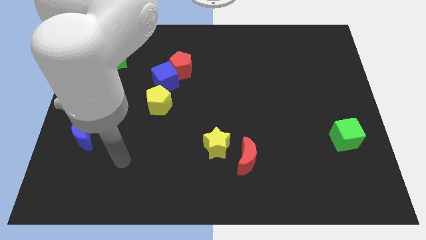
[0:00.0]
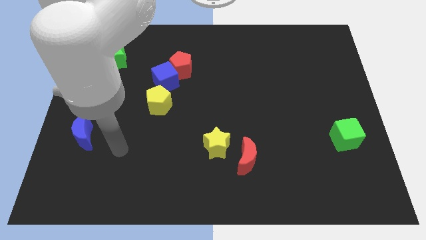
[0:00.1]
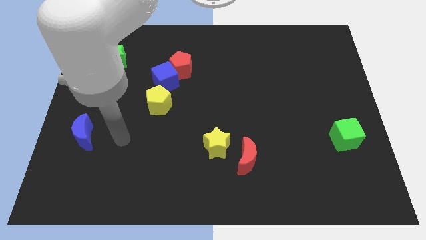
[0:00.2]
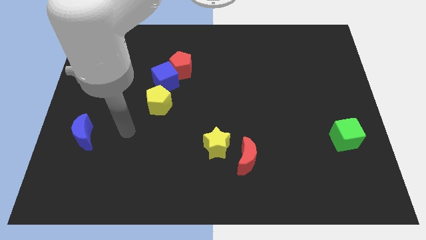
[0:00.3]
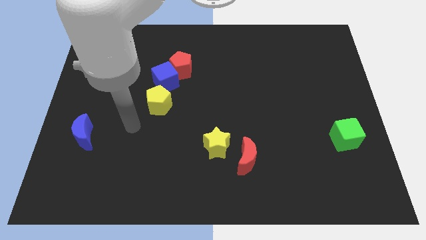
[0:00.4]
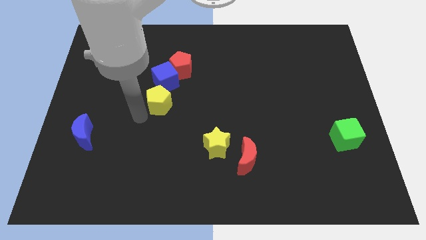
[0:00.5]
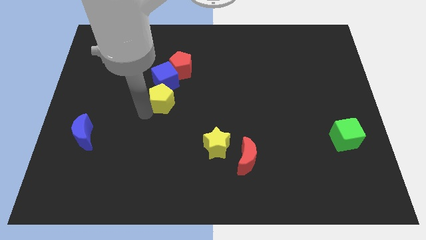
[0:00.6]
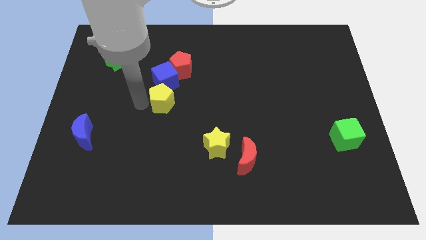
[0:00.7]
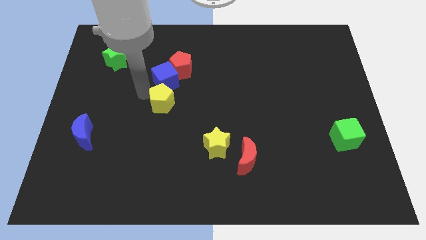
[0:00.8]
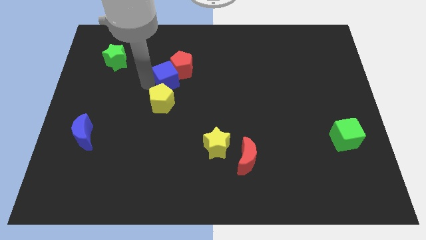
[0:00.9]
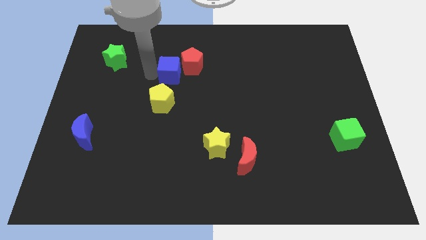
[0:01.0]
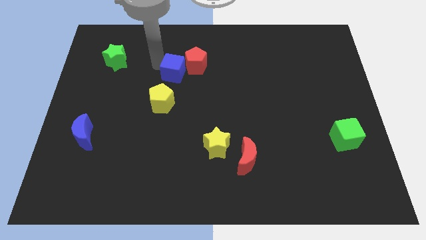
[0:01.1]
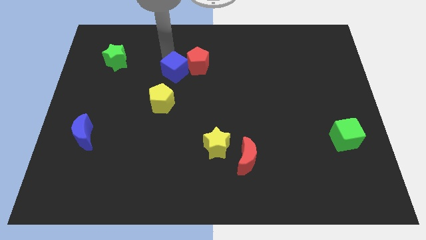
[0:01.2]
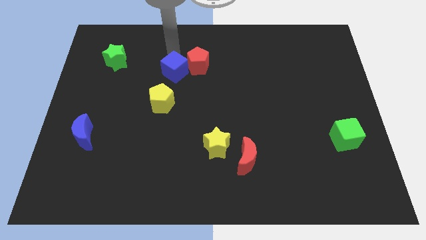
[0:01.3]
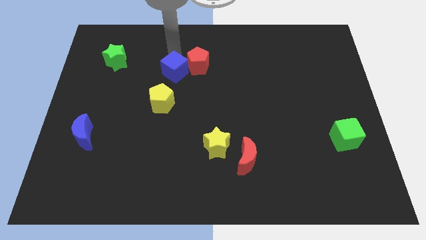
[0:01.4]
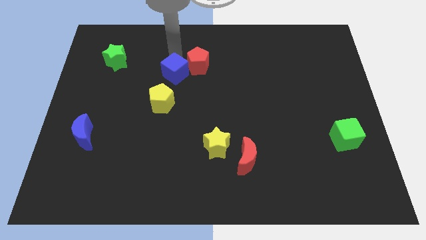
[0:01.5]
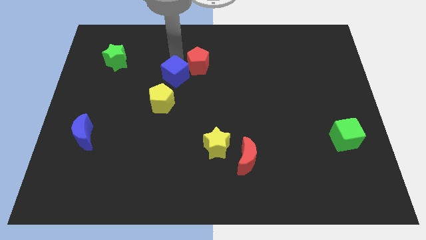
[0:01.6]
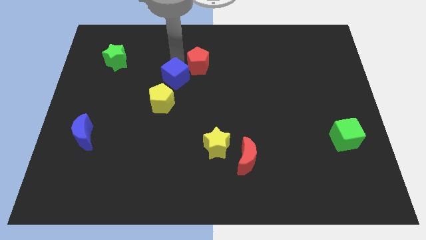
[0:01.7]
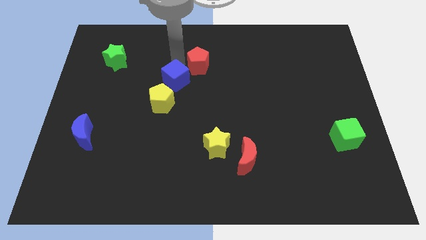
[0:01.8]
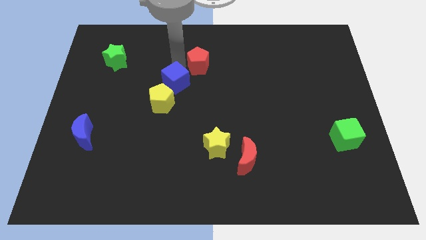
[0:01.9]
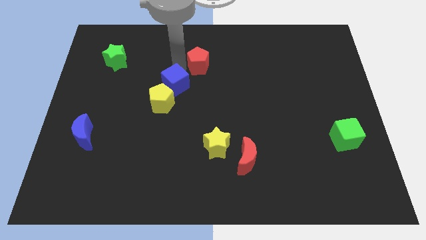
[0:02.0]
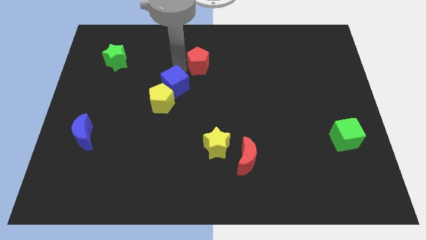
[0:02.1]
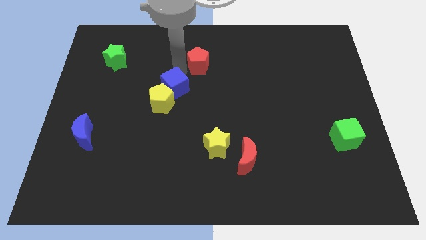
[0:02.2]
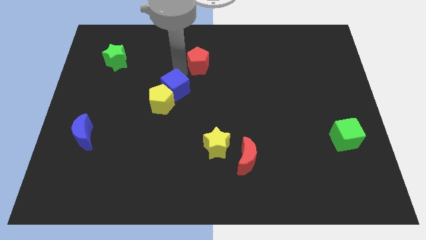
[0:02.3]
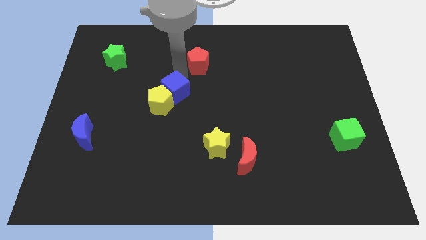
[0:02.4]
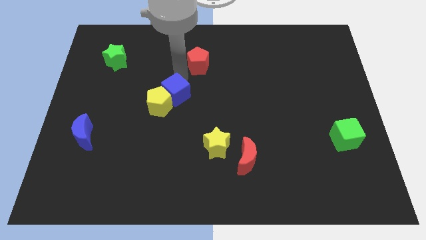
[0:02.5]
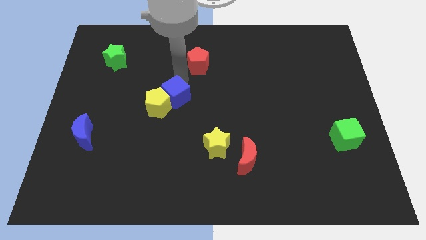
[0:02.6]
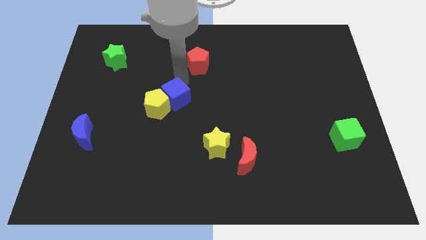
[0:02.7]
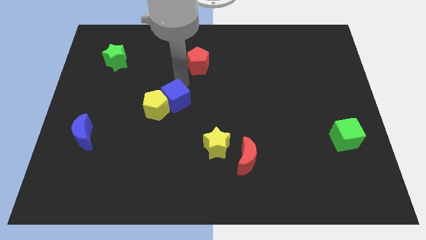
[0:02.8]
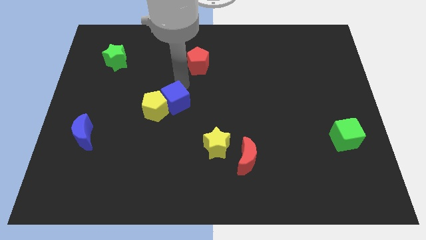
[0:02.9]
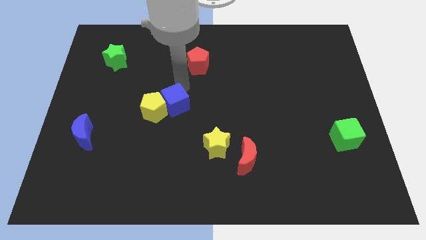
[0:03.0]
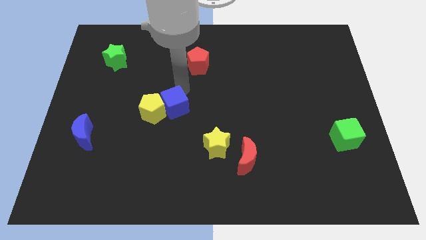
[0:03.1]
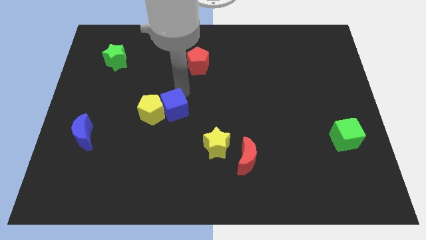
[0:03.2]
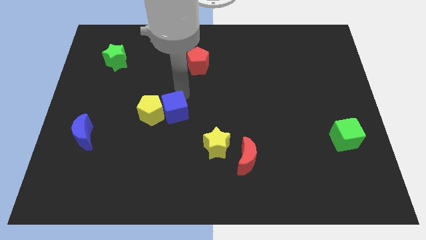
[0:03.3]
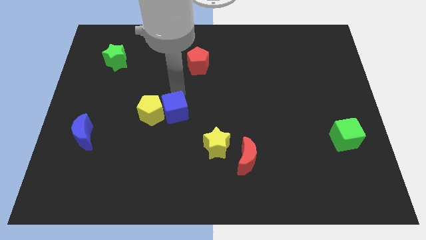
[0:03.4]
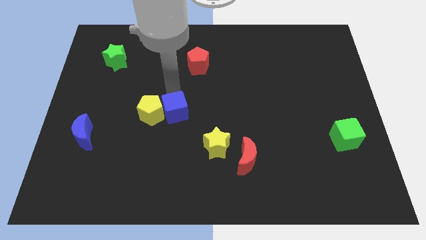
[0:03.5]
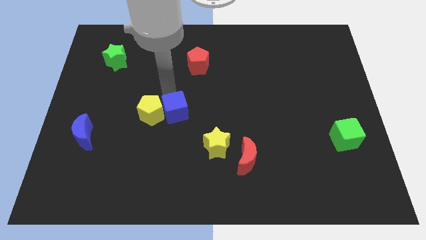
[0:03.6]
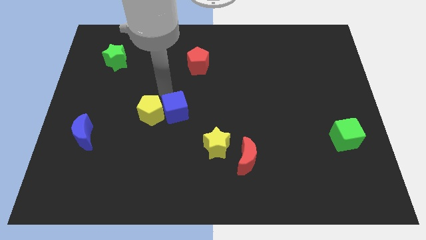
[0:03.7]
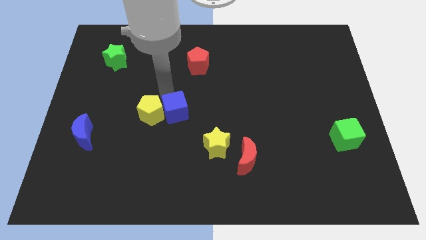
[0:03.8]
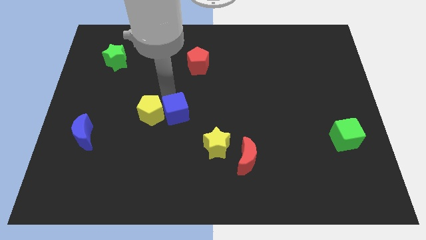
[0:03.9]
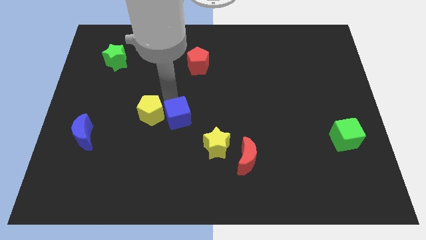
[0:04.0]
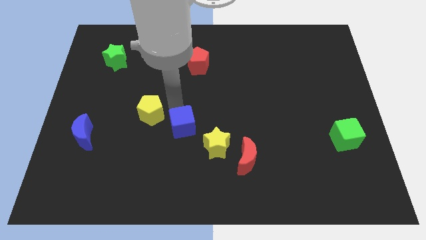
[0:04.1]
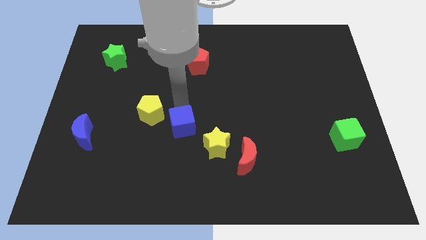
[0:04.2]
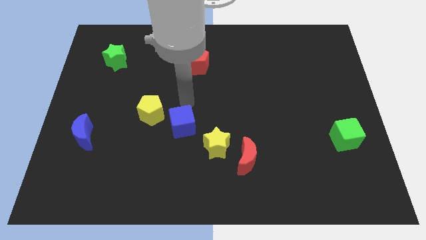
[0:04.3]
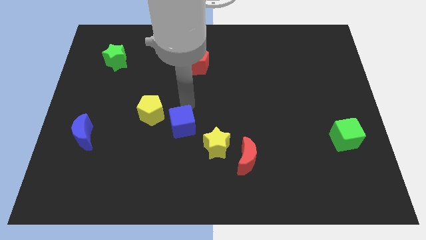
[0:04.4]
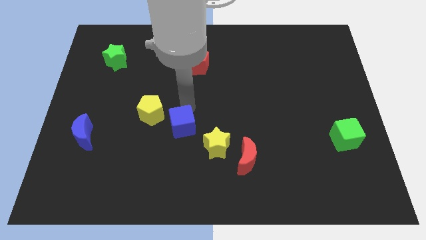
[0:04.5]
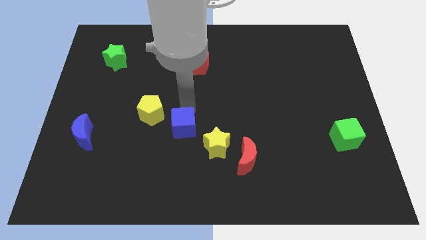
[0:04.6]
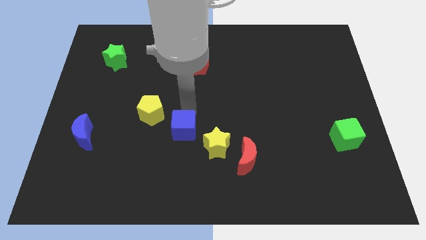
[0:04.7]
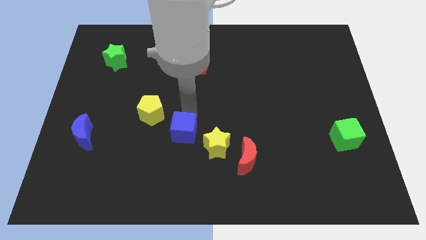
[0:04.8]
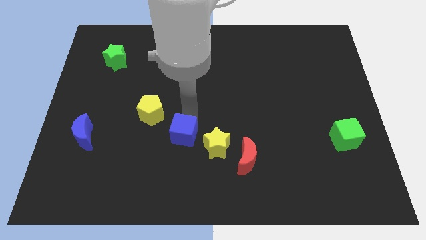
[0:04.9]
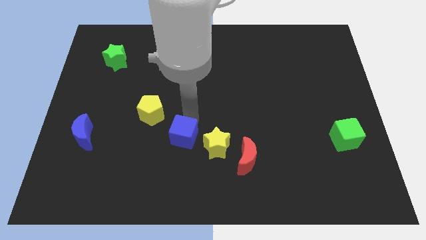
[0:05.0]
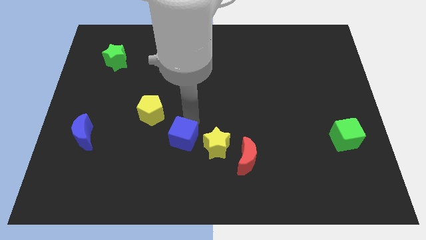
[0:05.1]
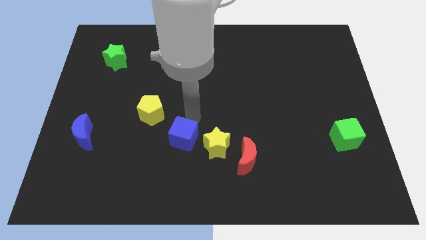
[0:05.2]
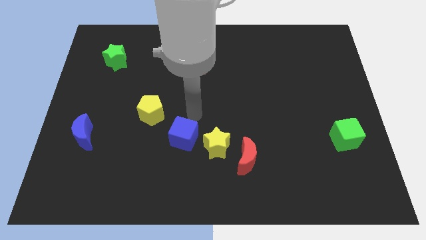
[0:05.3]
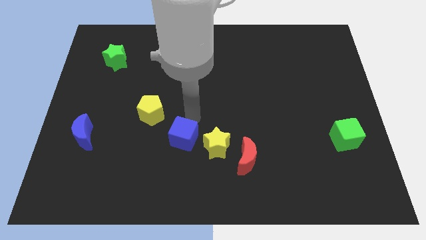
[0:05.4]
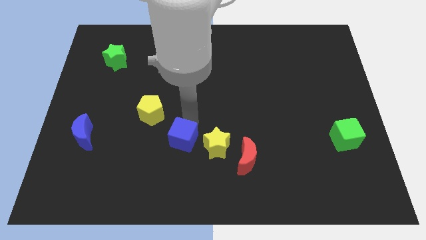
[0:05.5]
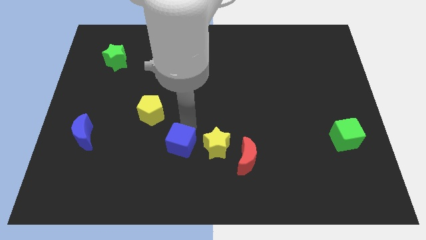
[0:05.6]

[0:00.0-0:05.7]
move the blue cube left of the red moon

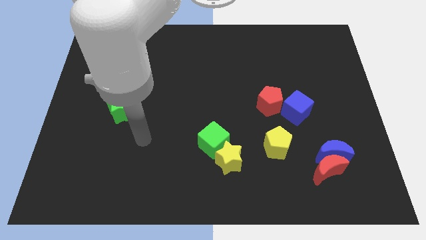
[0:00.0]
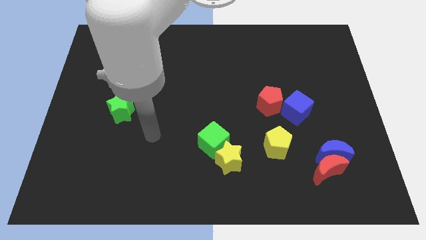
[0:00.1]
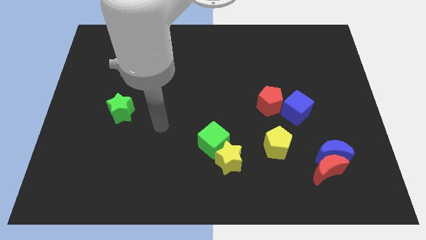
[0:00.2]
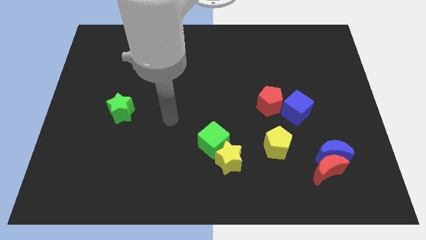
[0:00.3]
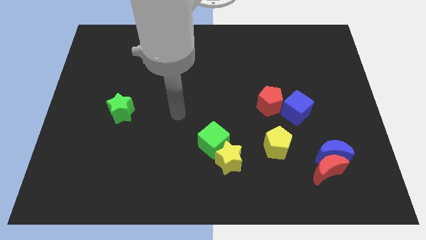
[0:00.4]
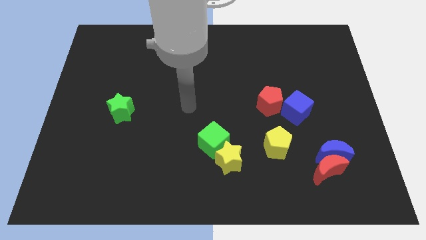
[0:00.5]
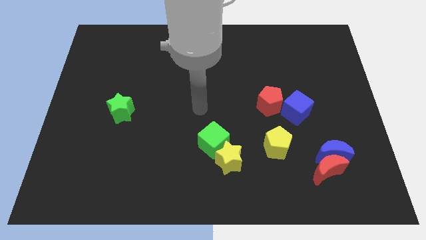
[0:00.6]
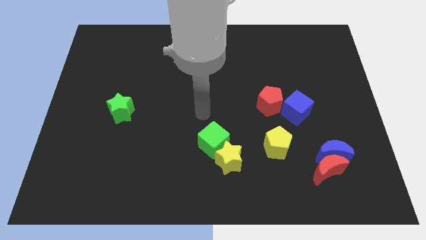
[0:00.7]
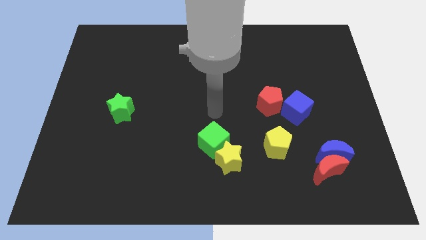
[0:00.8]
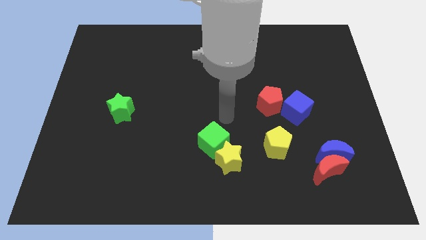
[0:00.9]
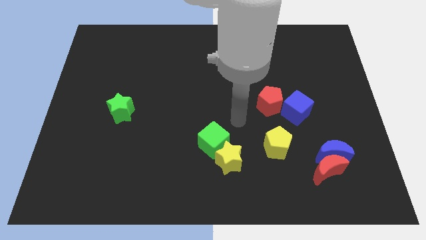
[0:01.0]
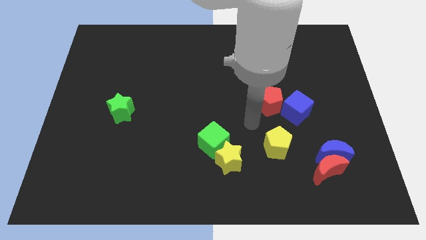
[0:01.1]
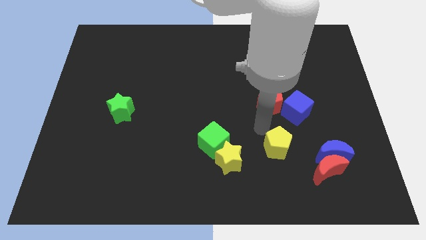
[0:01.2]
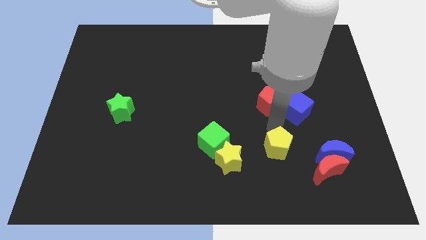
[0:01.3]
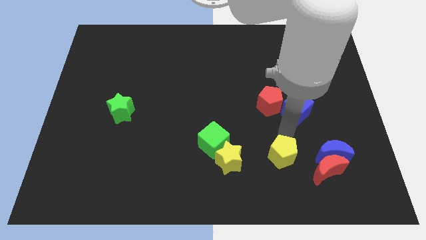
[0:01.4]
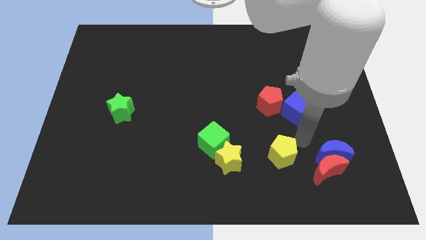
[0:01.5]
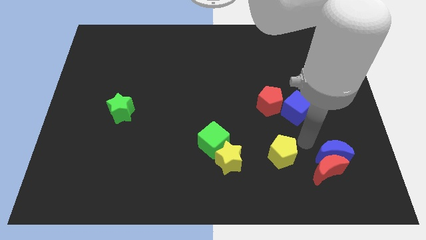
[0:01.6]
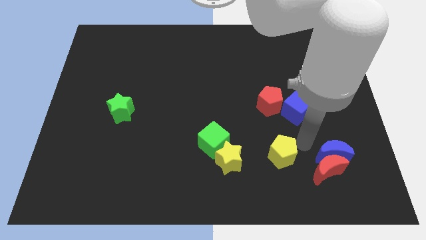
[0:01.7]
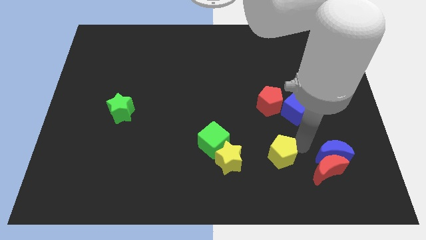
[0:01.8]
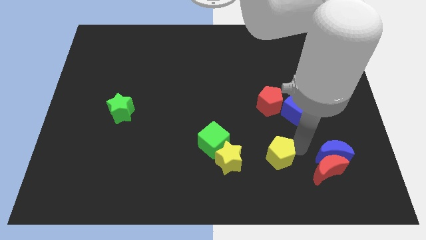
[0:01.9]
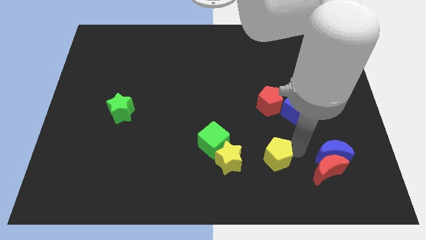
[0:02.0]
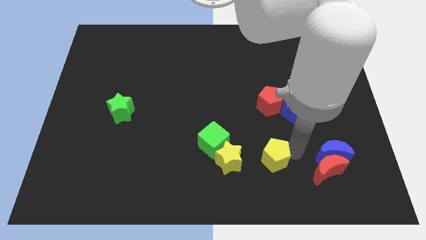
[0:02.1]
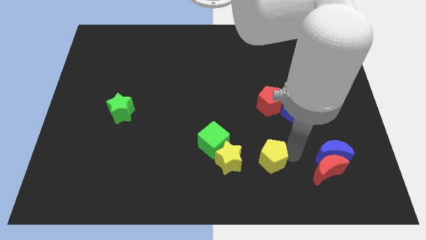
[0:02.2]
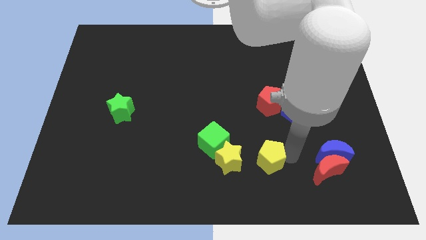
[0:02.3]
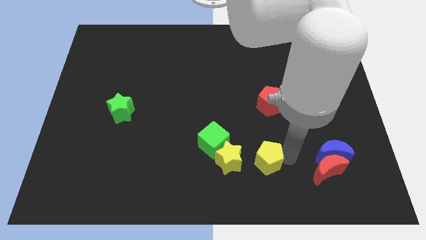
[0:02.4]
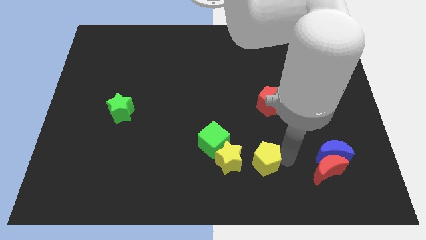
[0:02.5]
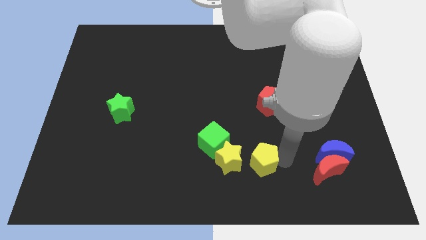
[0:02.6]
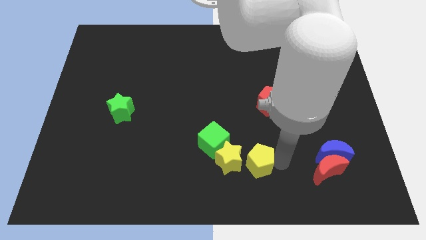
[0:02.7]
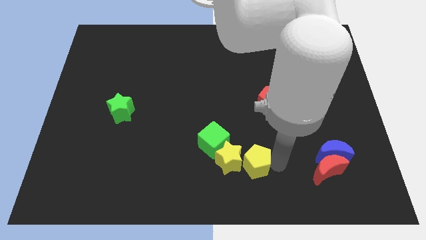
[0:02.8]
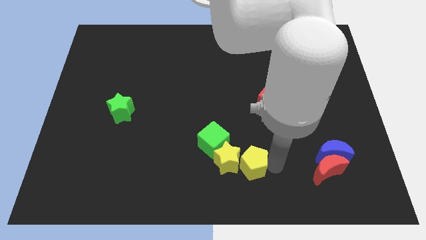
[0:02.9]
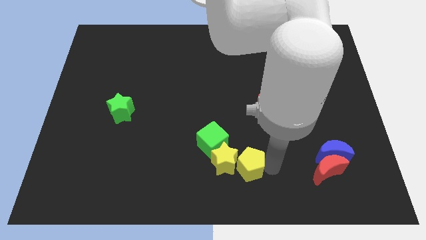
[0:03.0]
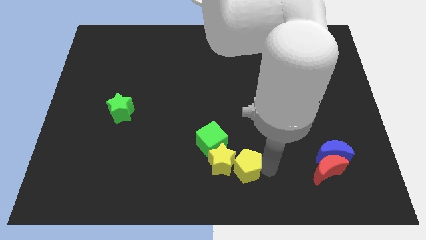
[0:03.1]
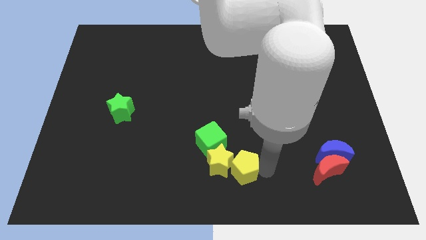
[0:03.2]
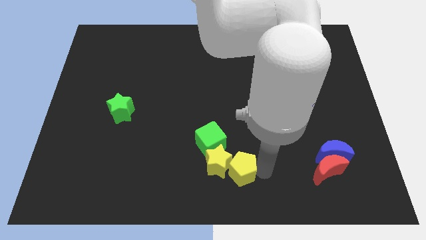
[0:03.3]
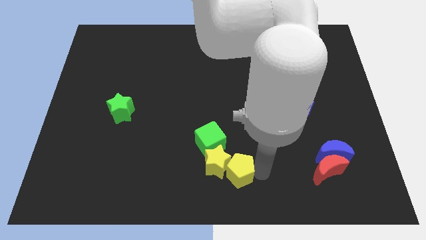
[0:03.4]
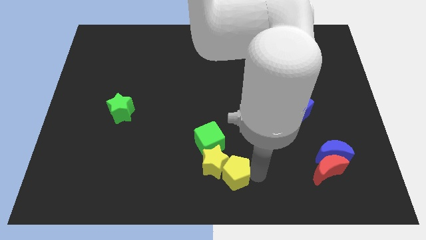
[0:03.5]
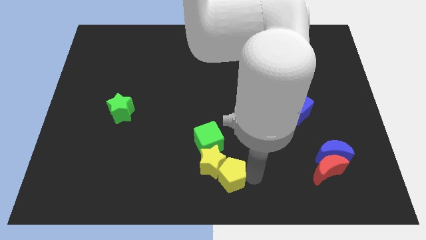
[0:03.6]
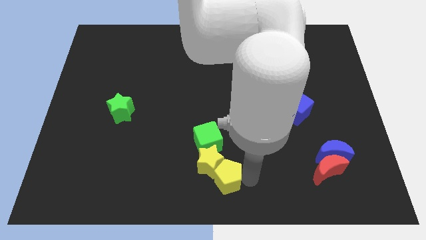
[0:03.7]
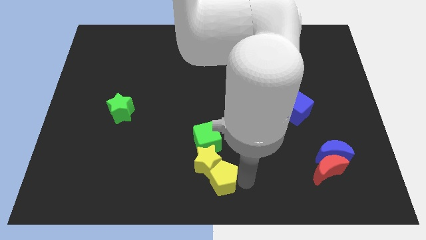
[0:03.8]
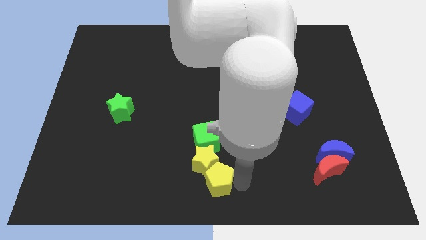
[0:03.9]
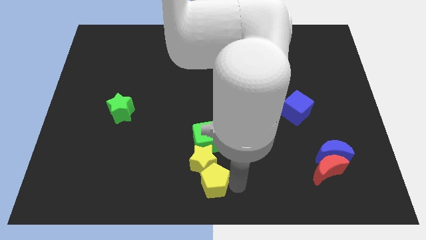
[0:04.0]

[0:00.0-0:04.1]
slide the yellow pentagon to the bottom left of the yellow star
